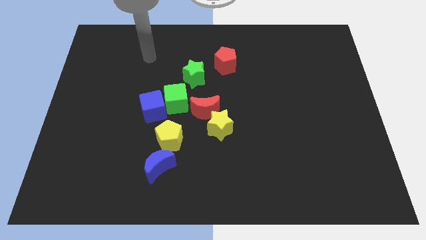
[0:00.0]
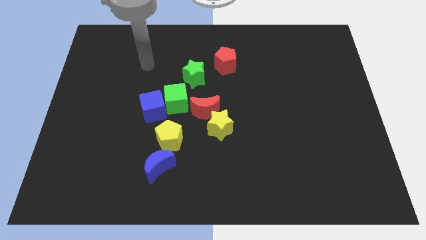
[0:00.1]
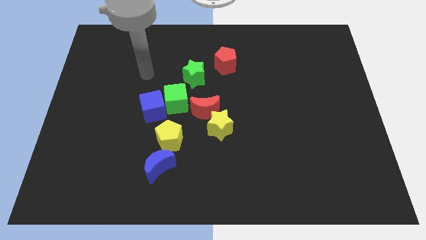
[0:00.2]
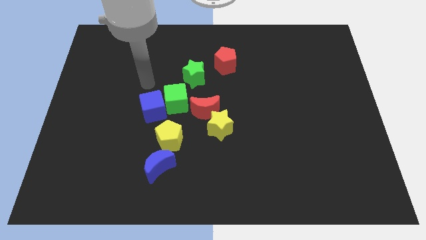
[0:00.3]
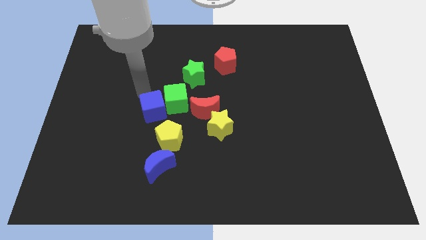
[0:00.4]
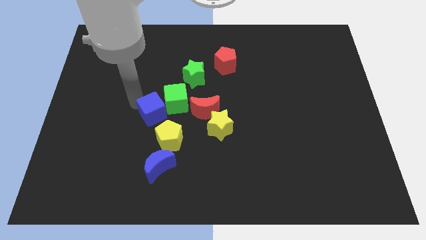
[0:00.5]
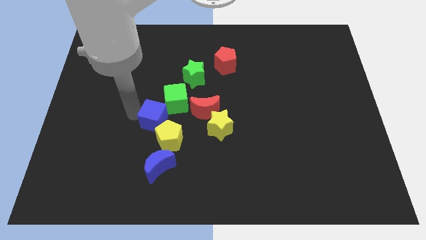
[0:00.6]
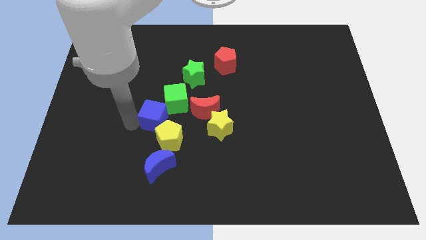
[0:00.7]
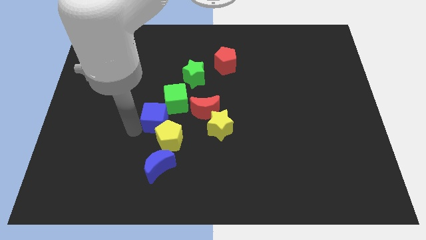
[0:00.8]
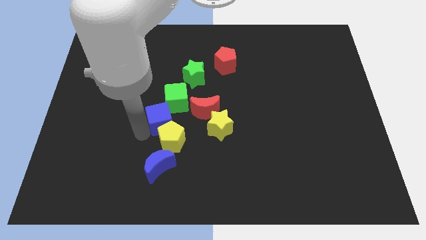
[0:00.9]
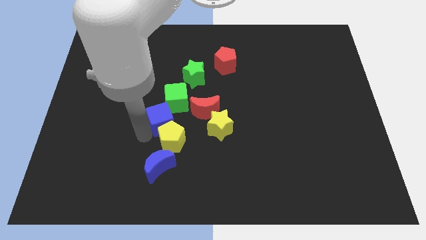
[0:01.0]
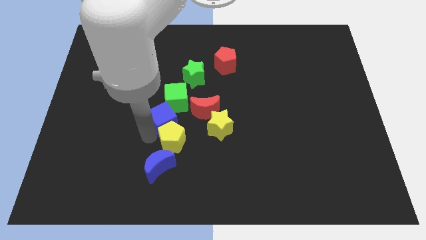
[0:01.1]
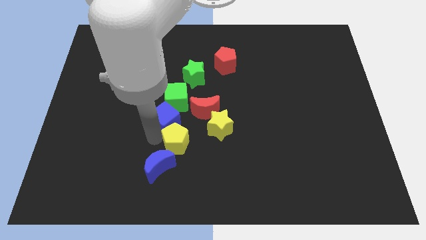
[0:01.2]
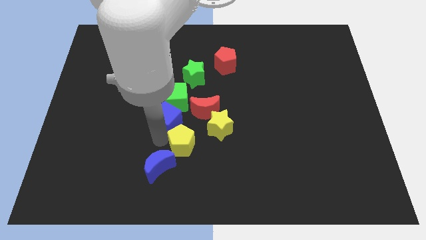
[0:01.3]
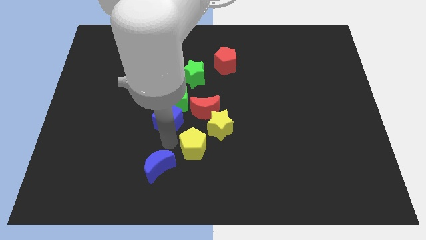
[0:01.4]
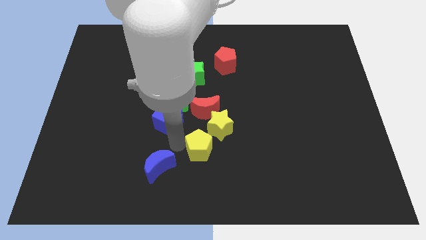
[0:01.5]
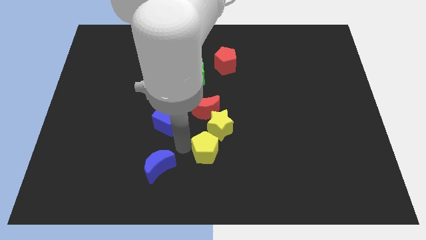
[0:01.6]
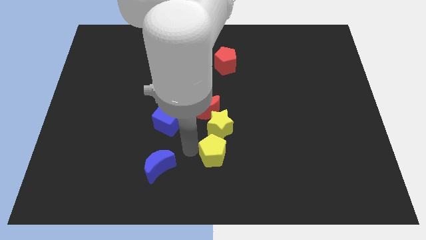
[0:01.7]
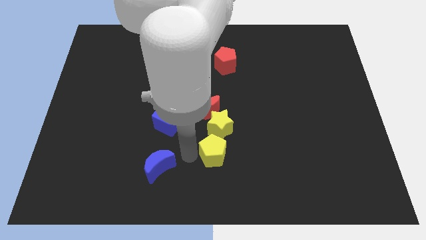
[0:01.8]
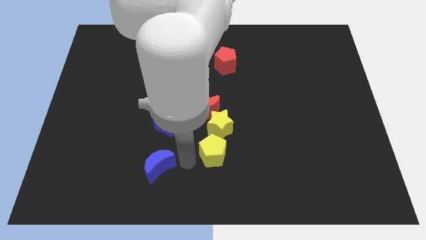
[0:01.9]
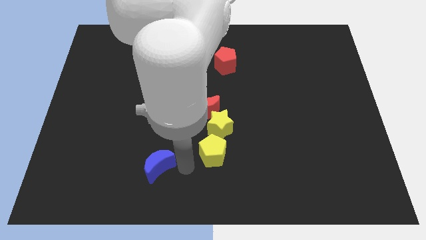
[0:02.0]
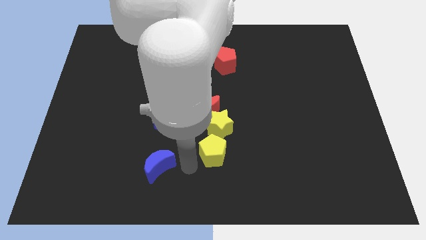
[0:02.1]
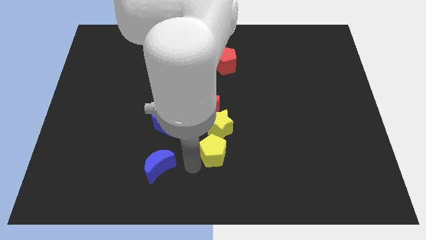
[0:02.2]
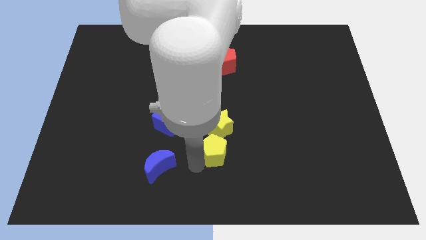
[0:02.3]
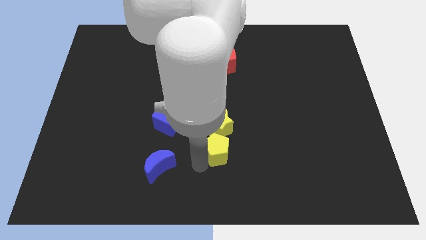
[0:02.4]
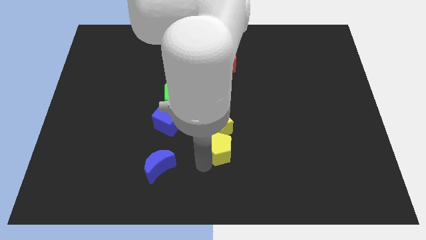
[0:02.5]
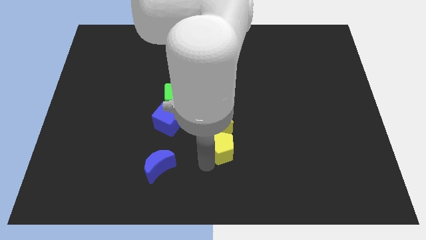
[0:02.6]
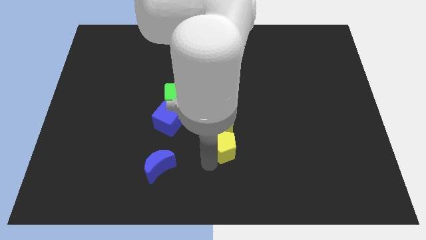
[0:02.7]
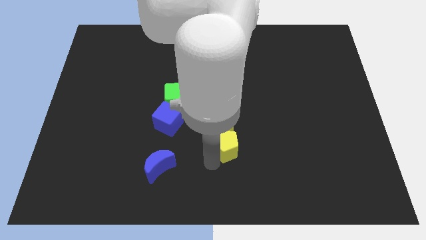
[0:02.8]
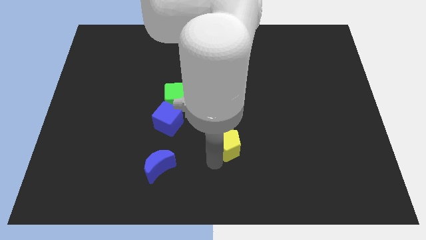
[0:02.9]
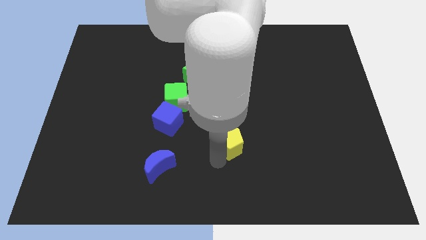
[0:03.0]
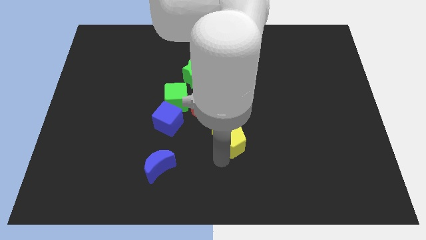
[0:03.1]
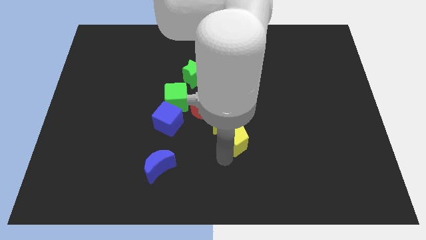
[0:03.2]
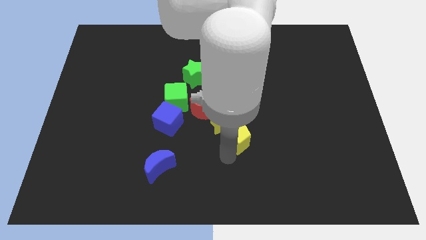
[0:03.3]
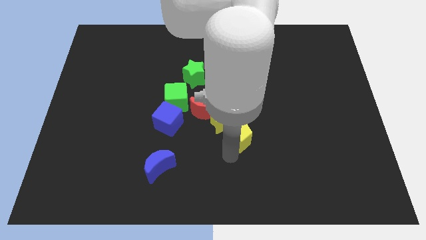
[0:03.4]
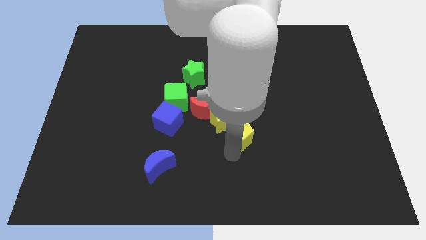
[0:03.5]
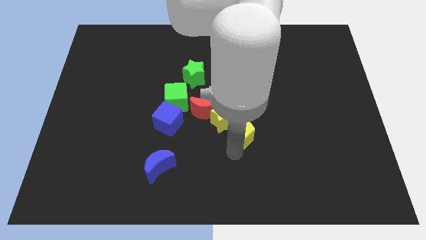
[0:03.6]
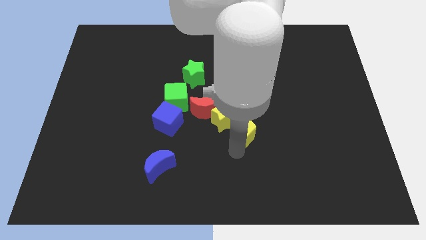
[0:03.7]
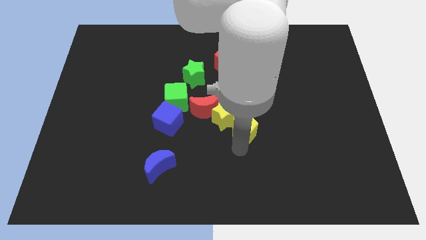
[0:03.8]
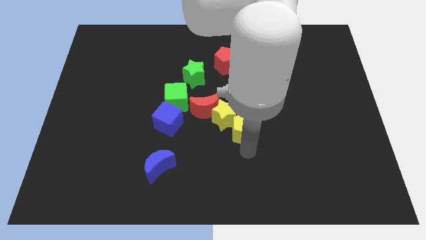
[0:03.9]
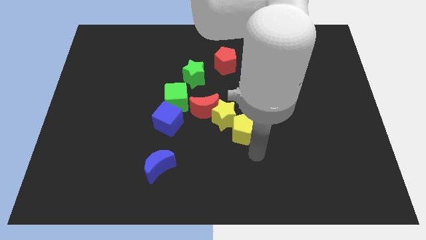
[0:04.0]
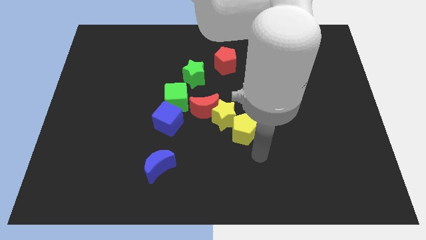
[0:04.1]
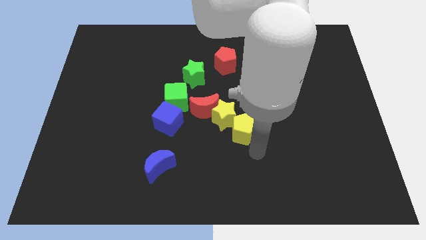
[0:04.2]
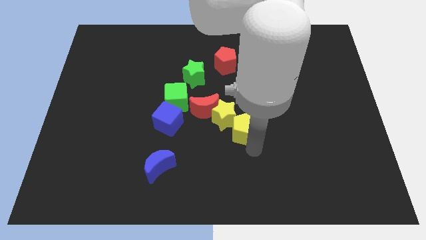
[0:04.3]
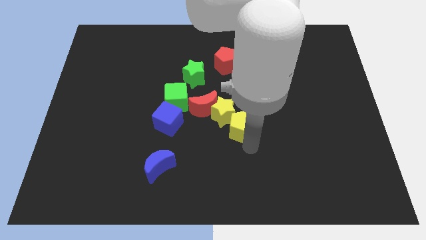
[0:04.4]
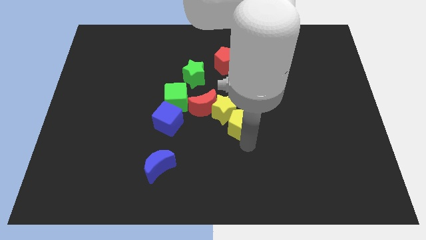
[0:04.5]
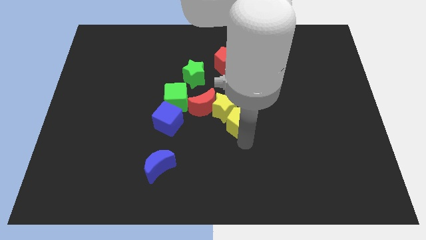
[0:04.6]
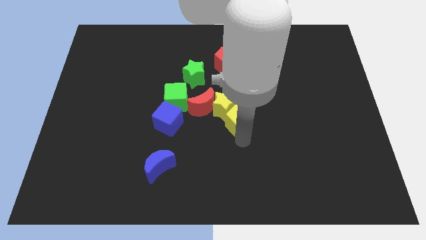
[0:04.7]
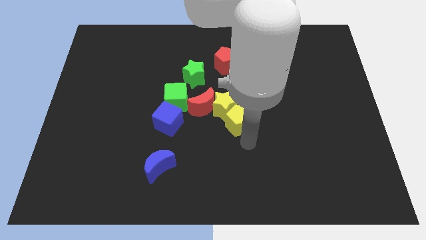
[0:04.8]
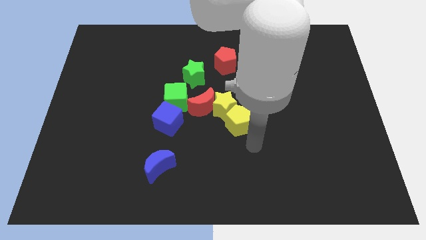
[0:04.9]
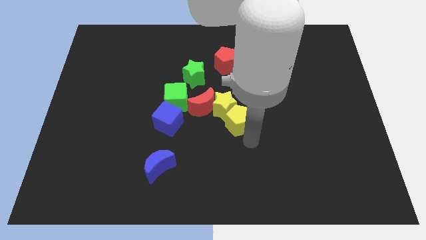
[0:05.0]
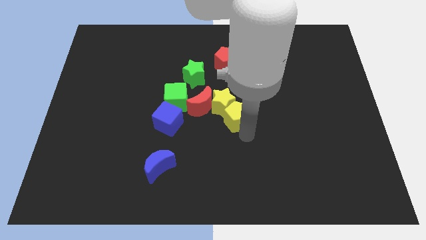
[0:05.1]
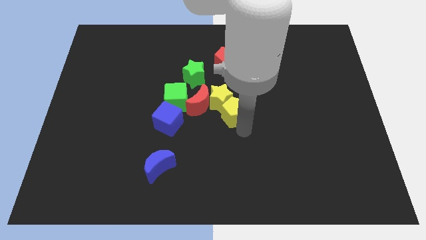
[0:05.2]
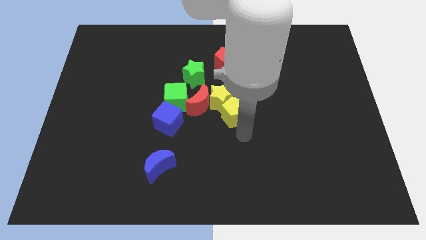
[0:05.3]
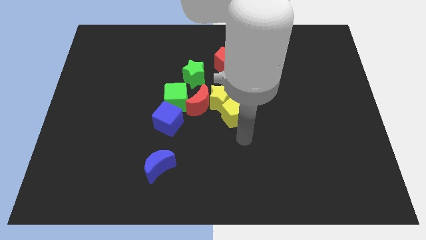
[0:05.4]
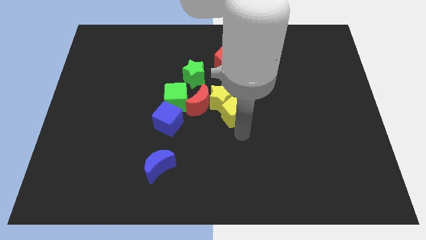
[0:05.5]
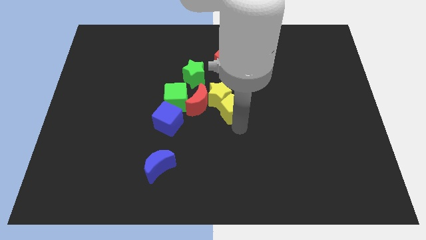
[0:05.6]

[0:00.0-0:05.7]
push the yellow pentagon below the red pentagon

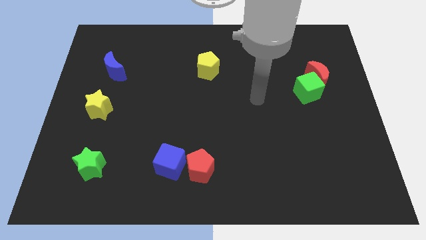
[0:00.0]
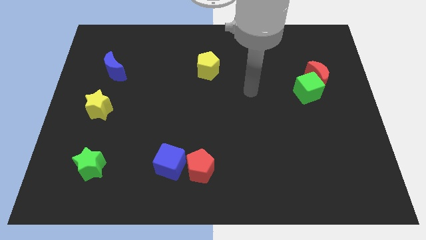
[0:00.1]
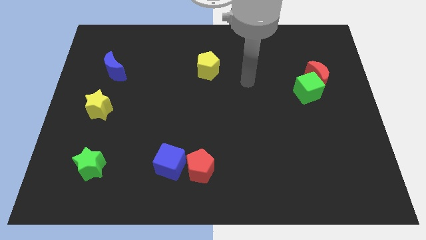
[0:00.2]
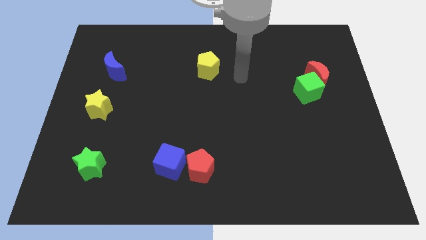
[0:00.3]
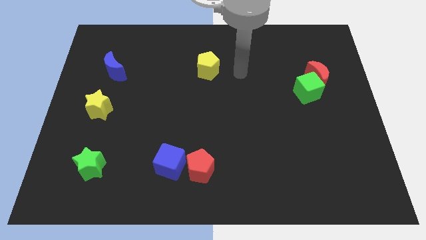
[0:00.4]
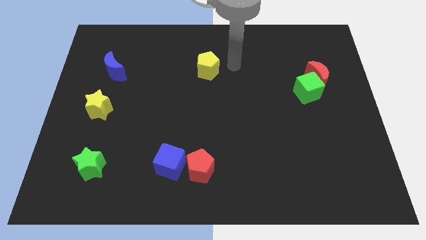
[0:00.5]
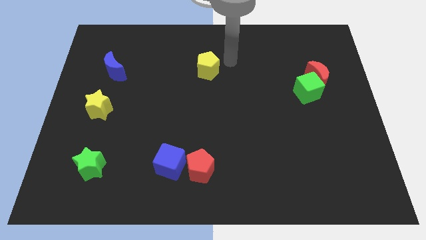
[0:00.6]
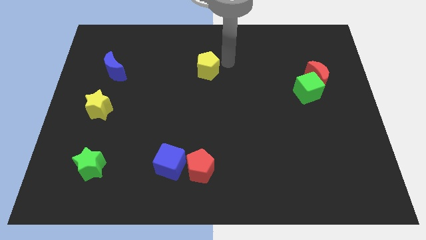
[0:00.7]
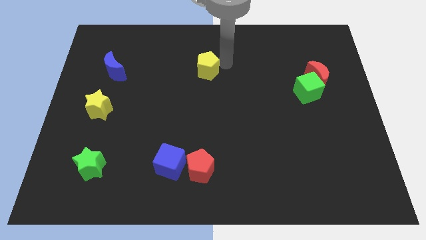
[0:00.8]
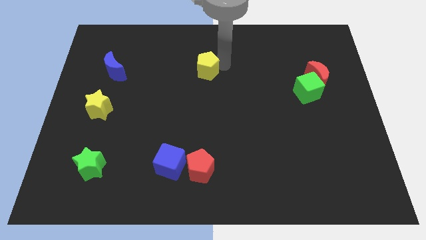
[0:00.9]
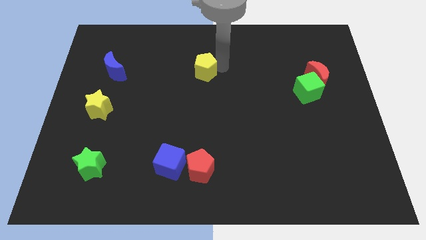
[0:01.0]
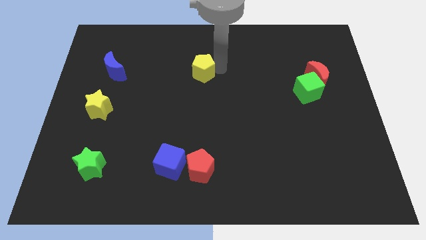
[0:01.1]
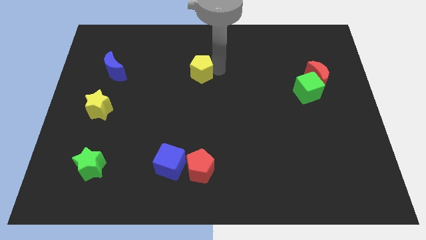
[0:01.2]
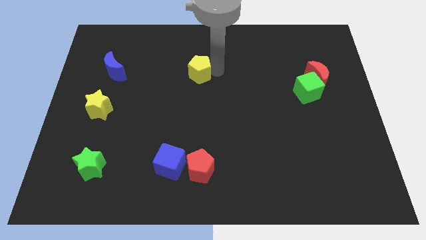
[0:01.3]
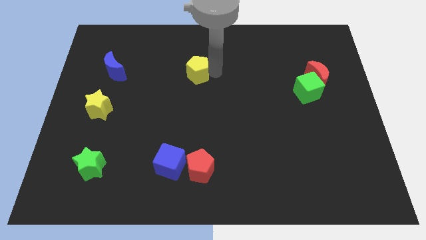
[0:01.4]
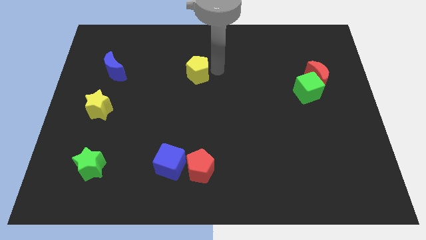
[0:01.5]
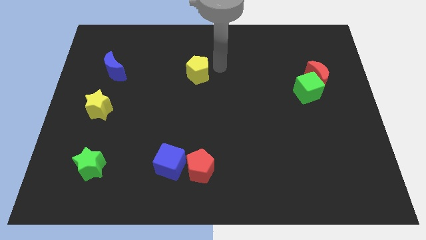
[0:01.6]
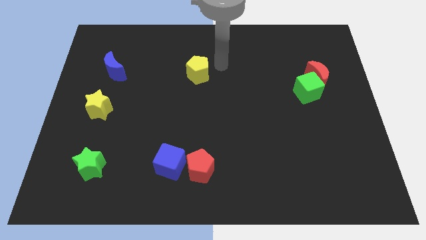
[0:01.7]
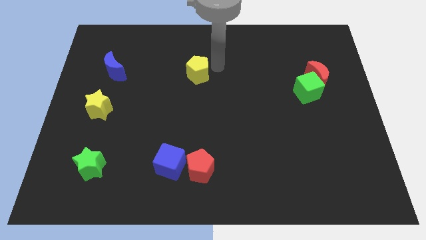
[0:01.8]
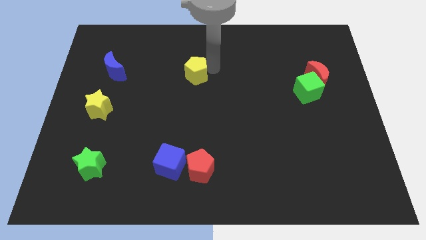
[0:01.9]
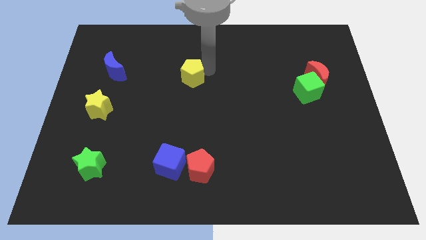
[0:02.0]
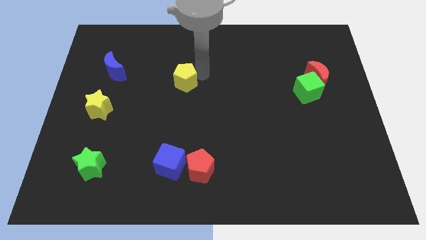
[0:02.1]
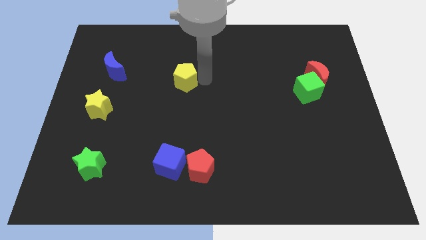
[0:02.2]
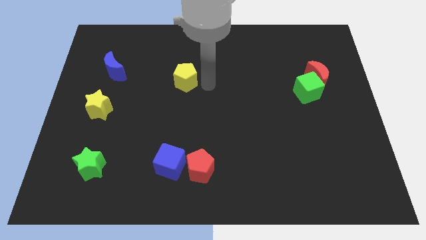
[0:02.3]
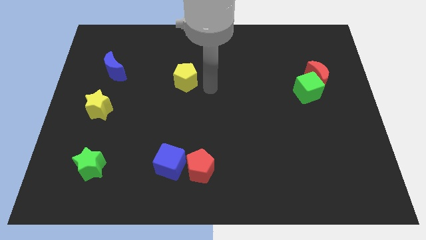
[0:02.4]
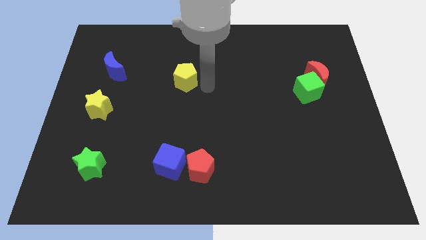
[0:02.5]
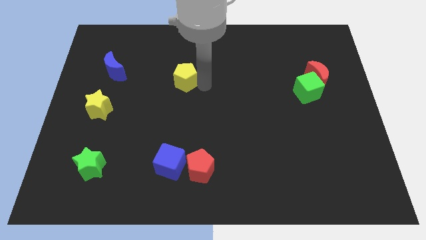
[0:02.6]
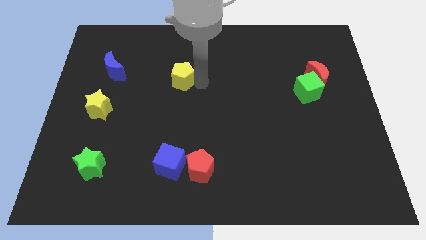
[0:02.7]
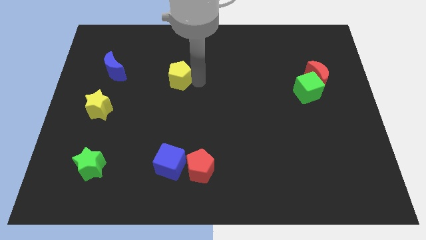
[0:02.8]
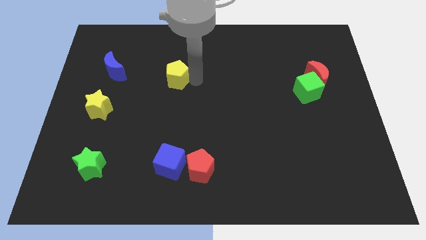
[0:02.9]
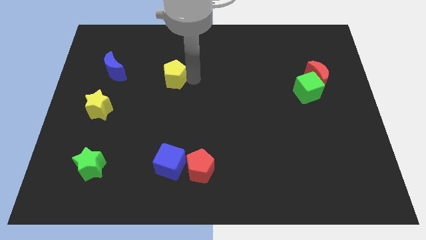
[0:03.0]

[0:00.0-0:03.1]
put the yellow pentagon to the right side of the blue moon

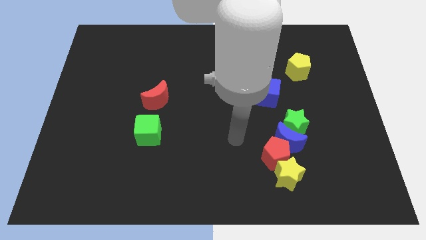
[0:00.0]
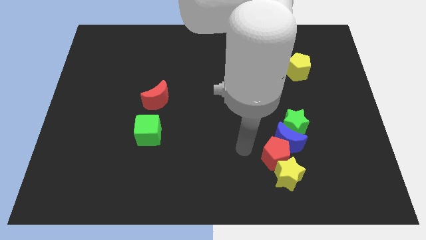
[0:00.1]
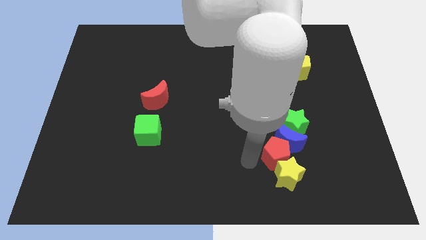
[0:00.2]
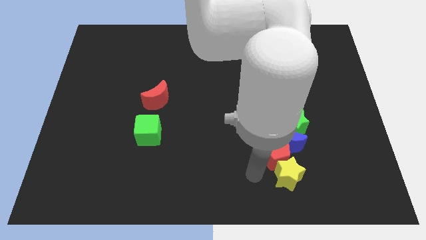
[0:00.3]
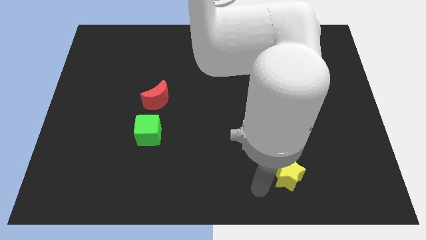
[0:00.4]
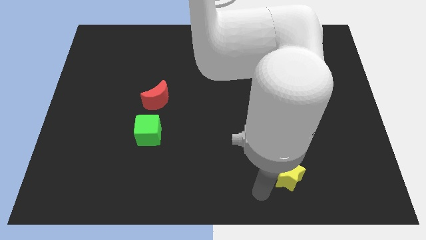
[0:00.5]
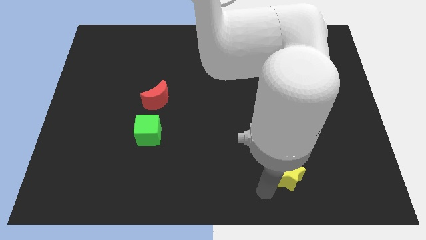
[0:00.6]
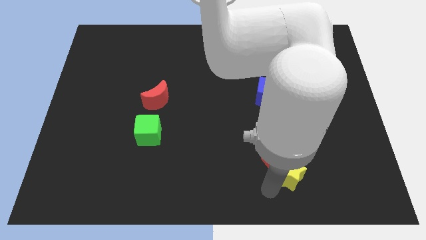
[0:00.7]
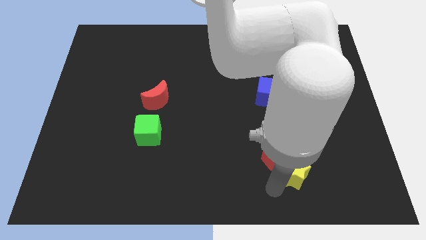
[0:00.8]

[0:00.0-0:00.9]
move the yellow star to the right side of the red pentagon
